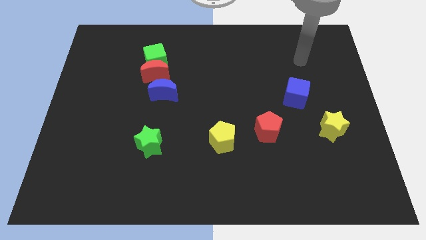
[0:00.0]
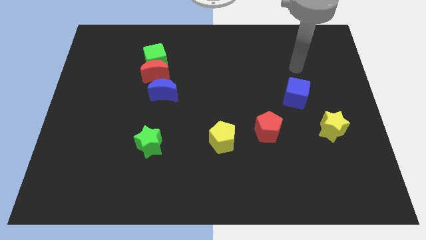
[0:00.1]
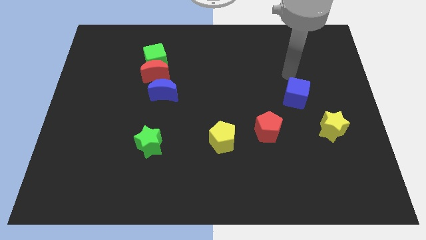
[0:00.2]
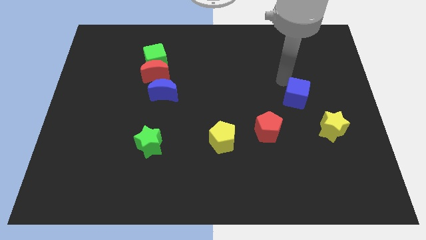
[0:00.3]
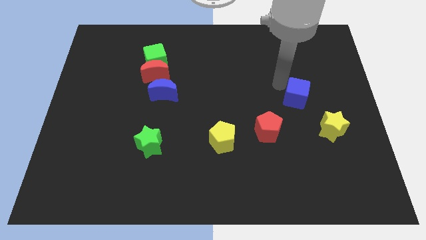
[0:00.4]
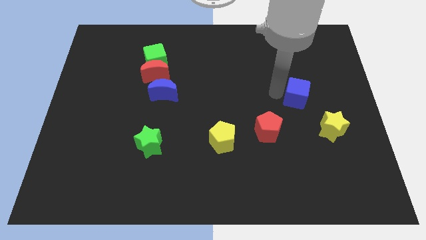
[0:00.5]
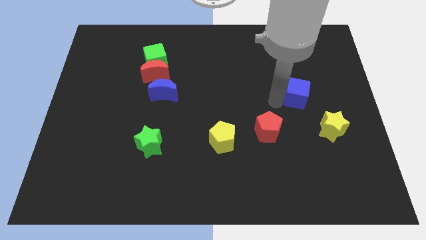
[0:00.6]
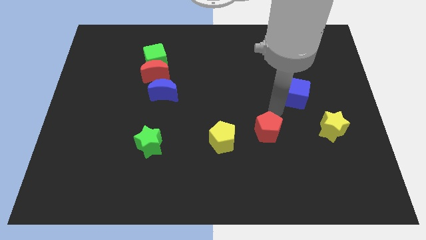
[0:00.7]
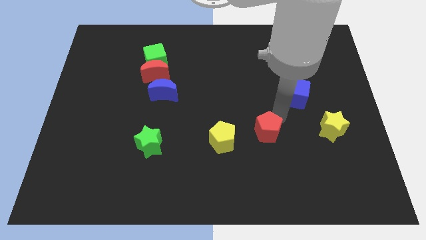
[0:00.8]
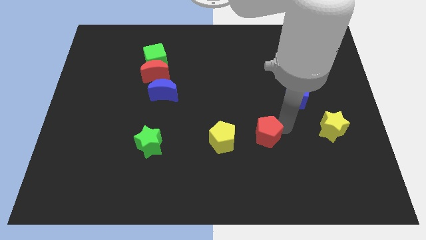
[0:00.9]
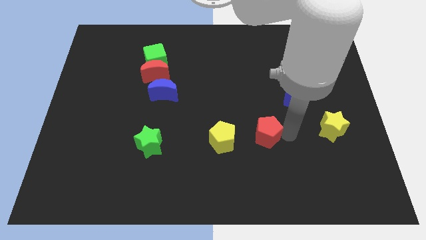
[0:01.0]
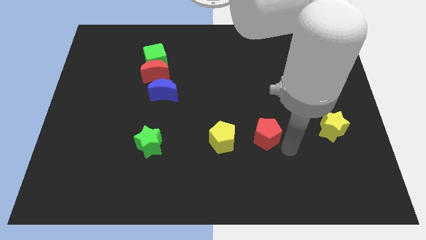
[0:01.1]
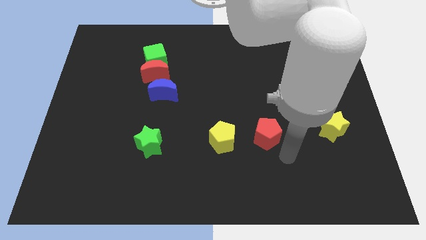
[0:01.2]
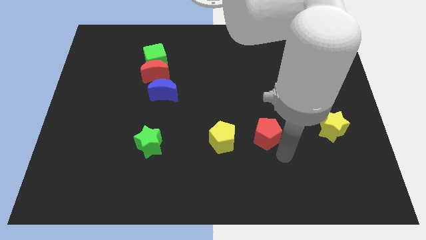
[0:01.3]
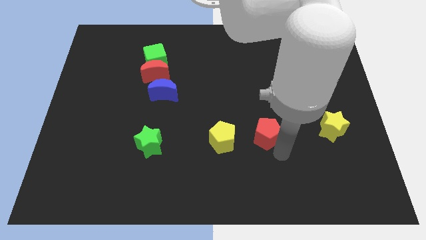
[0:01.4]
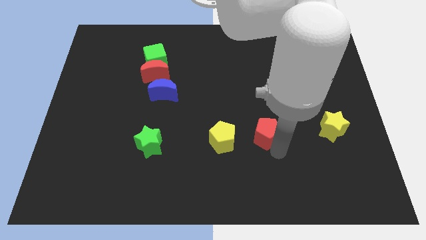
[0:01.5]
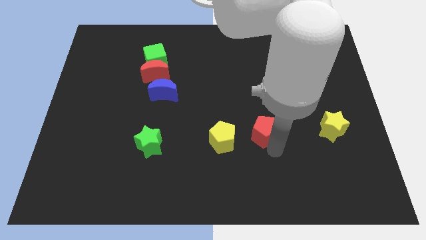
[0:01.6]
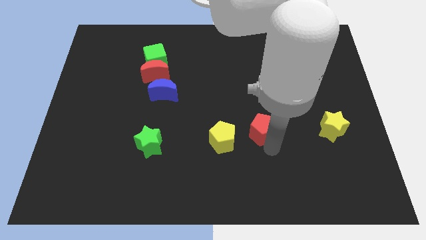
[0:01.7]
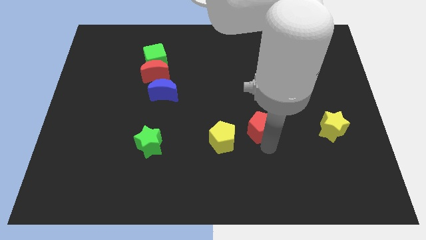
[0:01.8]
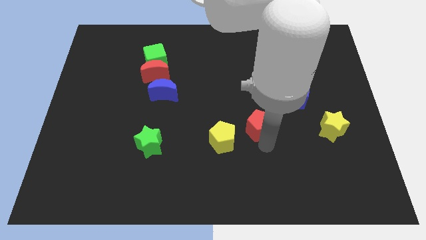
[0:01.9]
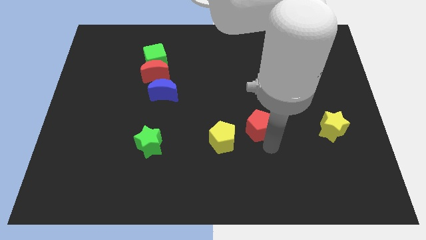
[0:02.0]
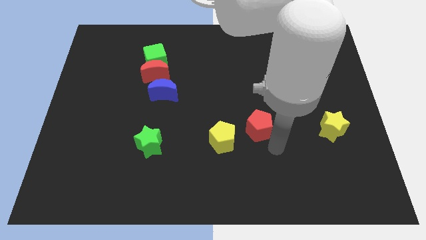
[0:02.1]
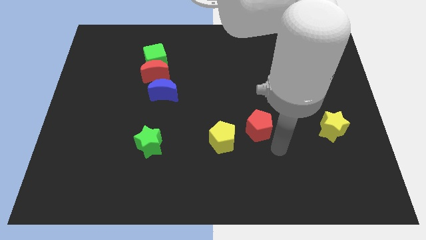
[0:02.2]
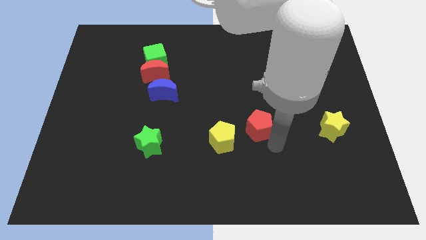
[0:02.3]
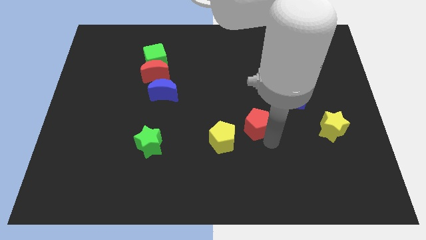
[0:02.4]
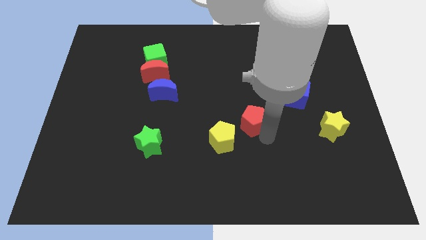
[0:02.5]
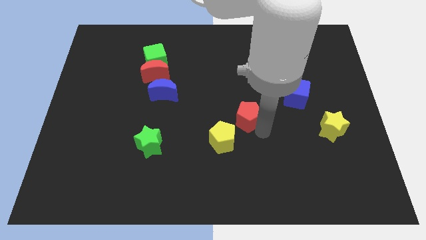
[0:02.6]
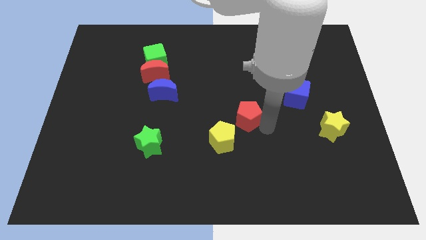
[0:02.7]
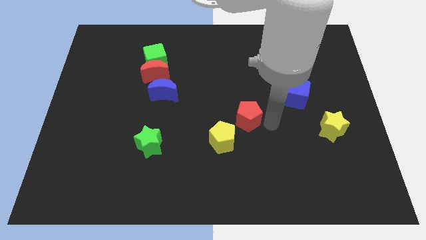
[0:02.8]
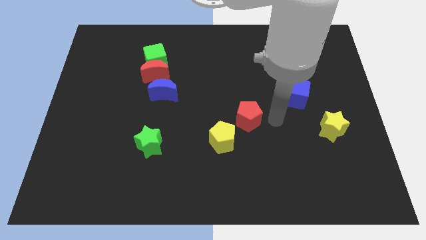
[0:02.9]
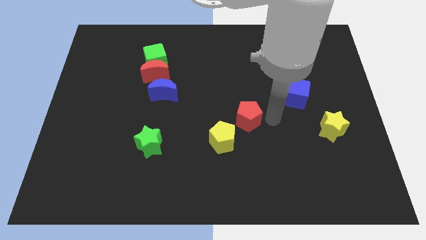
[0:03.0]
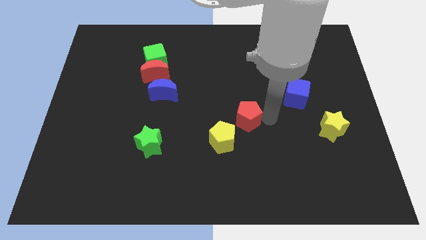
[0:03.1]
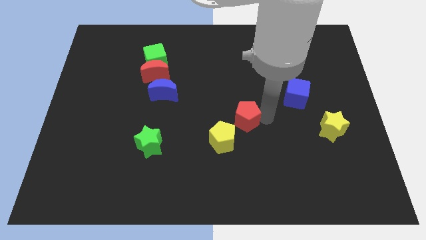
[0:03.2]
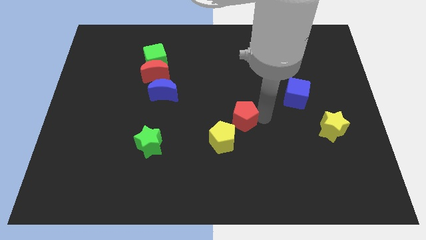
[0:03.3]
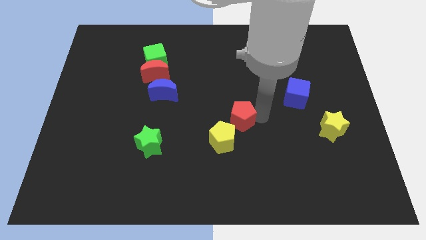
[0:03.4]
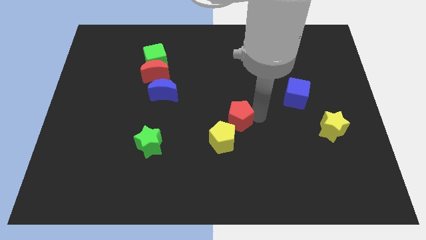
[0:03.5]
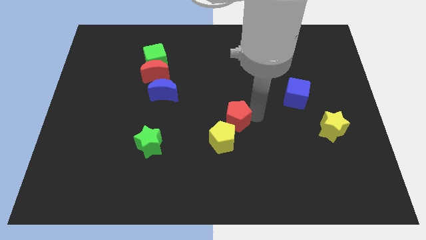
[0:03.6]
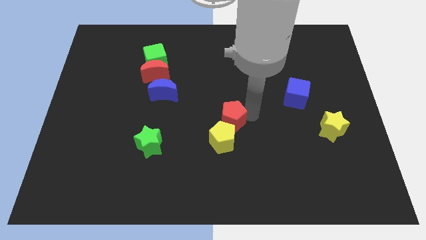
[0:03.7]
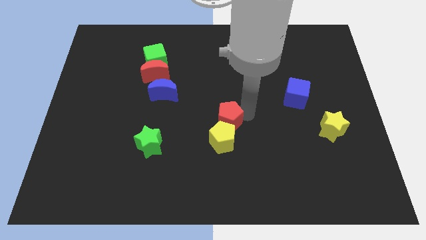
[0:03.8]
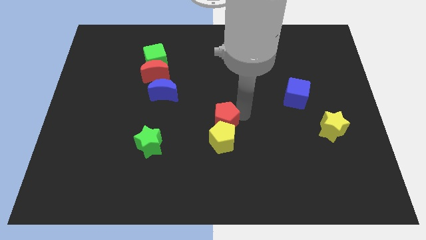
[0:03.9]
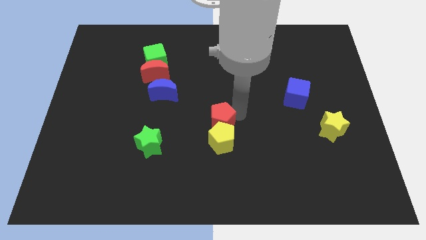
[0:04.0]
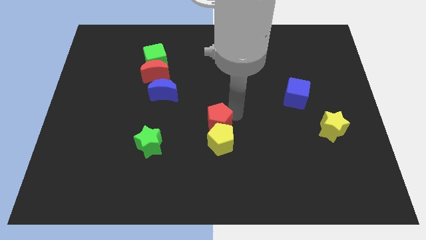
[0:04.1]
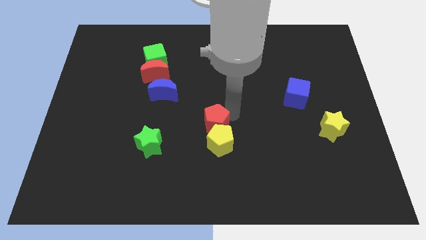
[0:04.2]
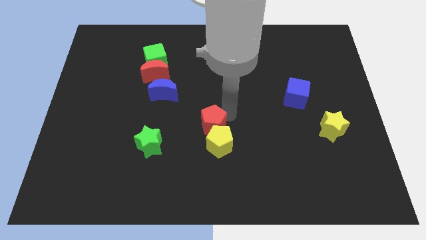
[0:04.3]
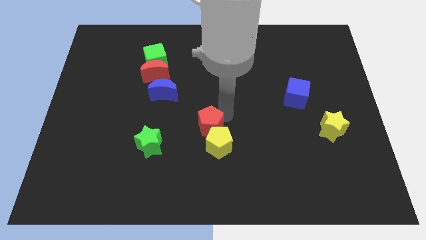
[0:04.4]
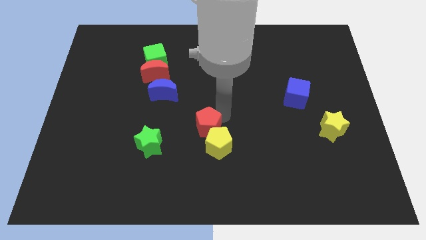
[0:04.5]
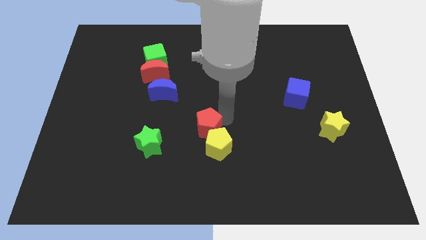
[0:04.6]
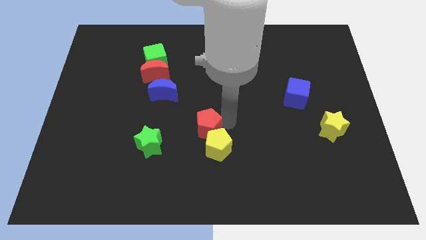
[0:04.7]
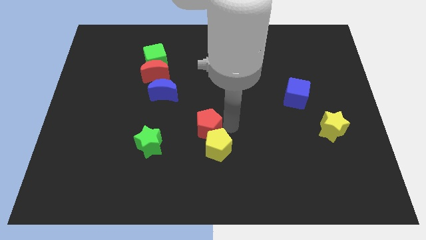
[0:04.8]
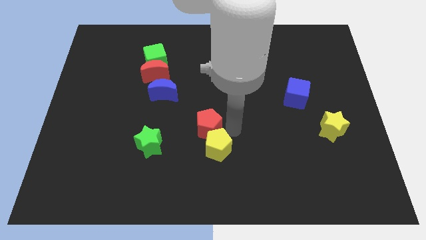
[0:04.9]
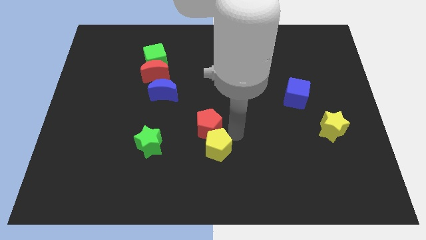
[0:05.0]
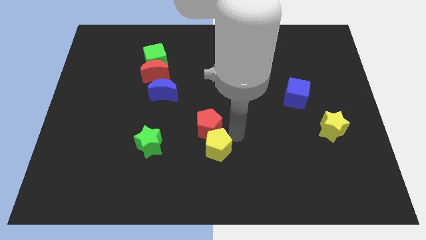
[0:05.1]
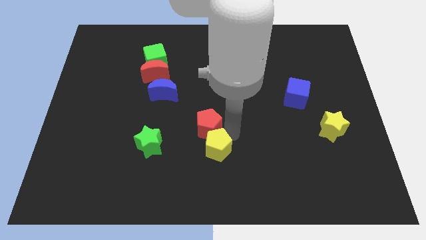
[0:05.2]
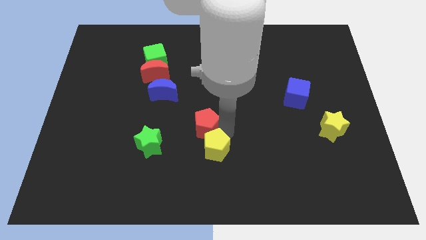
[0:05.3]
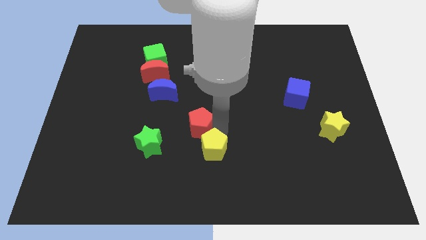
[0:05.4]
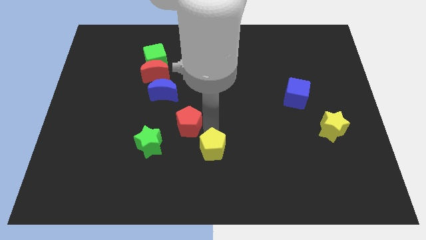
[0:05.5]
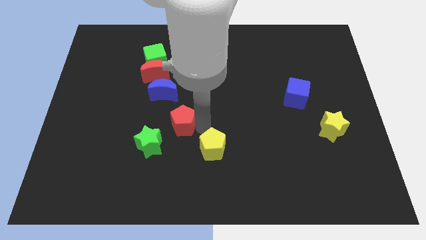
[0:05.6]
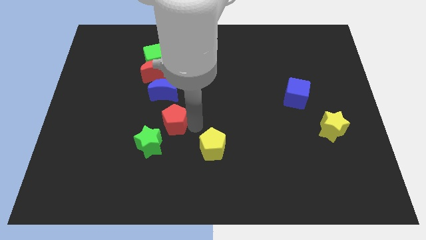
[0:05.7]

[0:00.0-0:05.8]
slide the red pentagon left

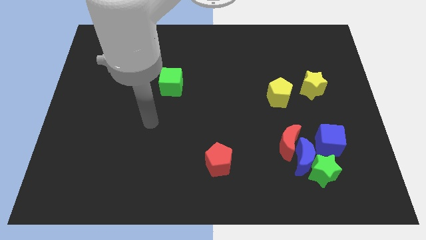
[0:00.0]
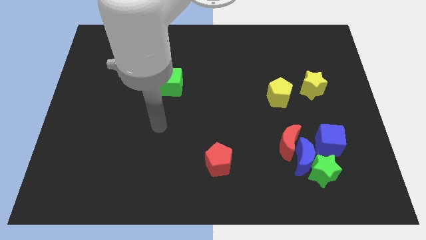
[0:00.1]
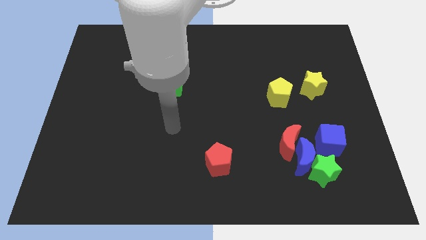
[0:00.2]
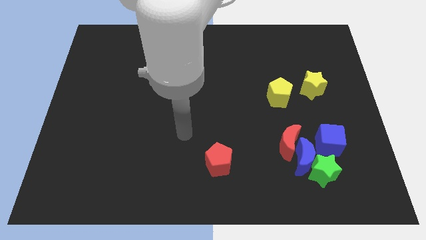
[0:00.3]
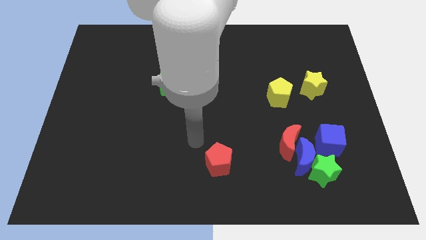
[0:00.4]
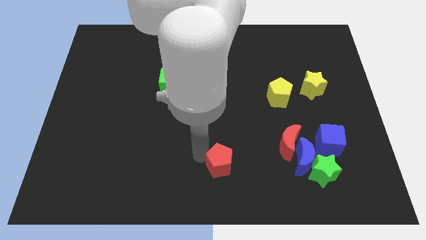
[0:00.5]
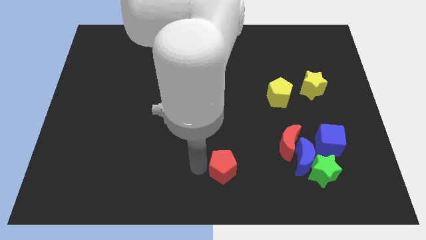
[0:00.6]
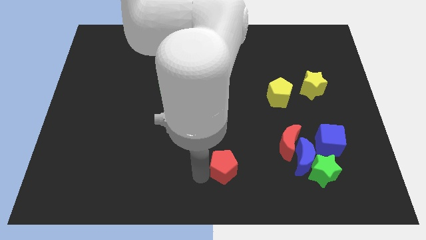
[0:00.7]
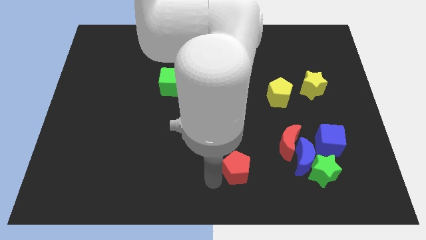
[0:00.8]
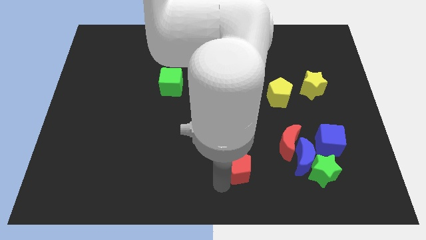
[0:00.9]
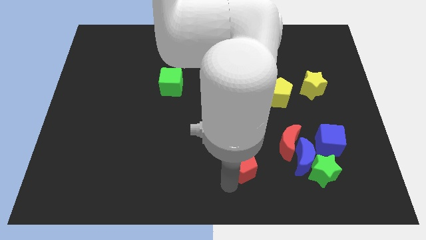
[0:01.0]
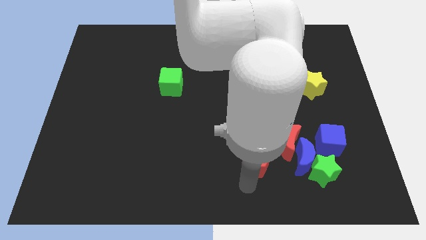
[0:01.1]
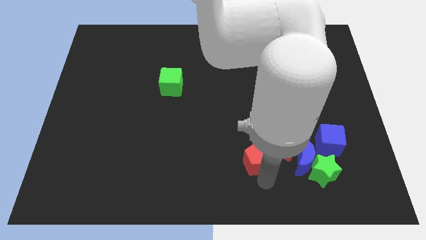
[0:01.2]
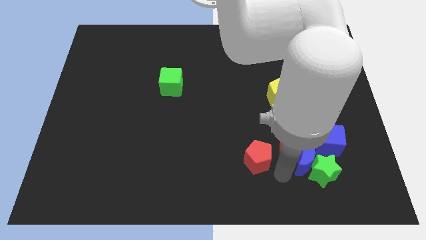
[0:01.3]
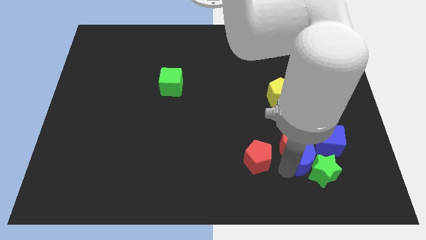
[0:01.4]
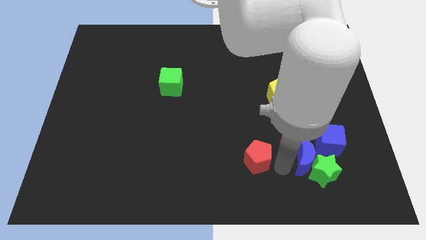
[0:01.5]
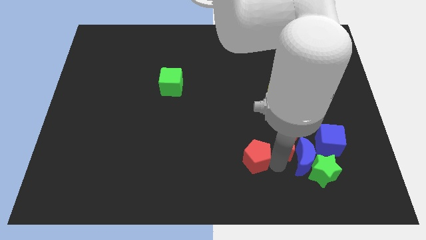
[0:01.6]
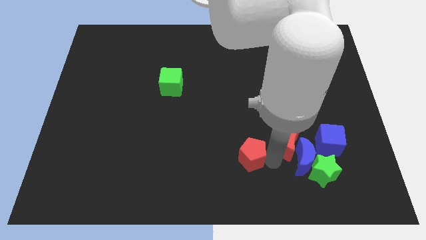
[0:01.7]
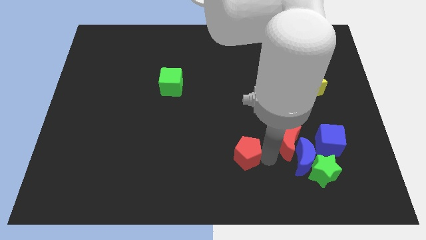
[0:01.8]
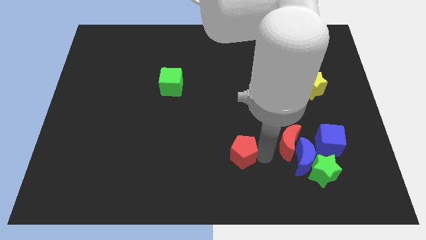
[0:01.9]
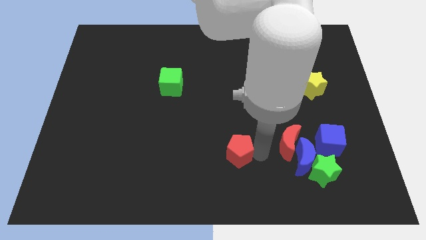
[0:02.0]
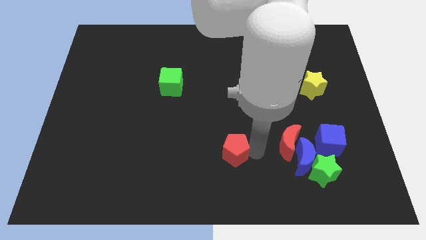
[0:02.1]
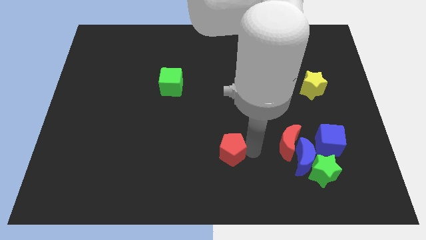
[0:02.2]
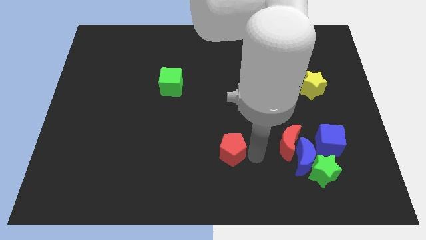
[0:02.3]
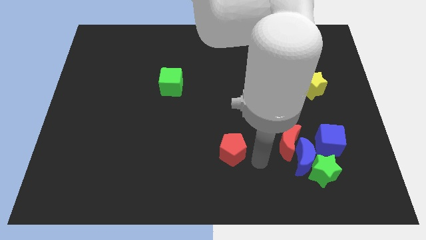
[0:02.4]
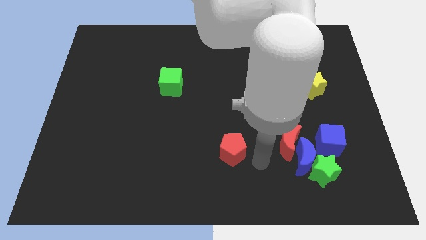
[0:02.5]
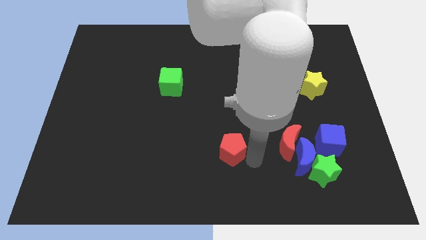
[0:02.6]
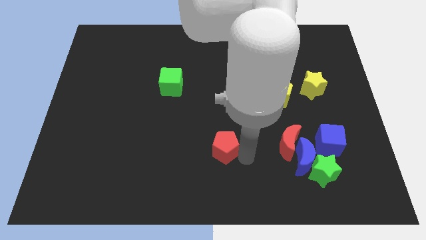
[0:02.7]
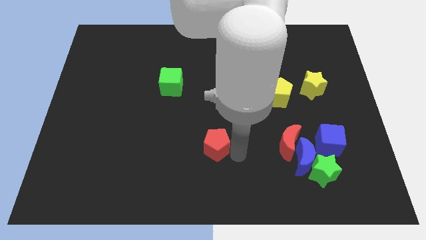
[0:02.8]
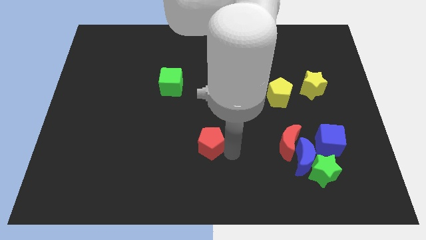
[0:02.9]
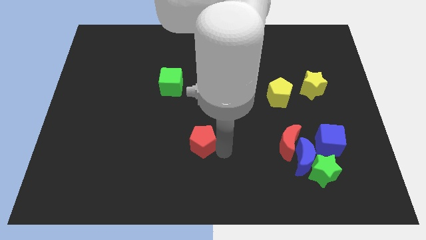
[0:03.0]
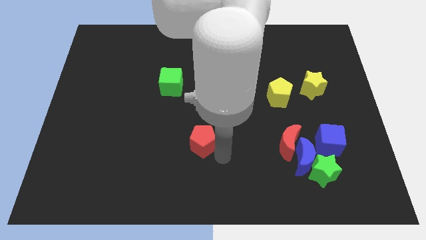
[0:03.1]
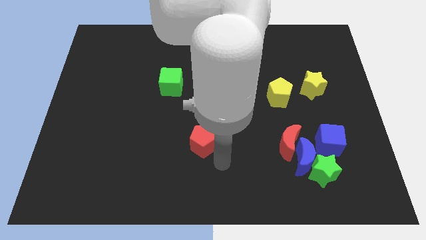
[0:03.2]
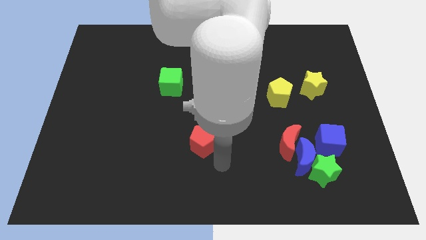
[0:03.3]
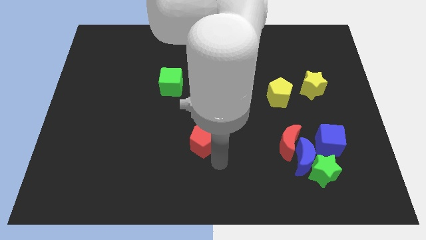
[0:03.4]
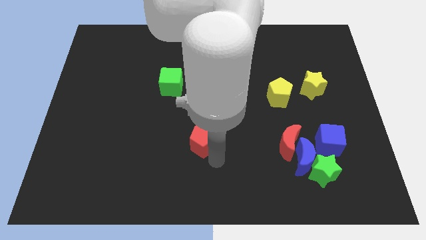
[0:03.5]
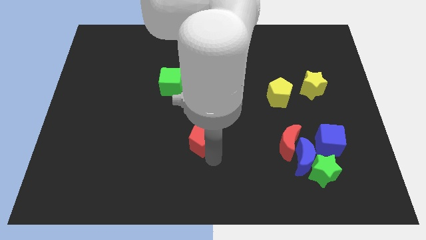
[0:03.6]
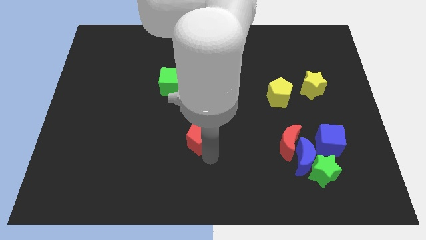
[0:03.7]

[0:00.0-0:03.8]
move the red pentagon upwards and to the left diagonally a little
